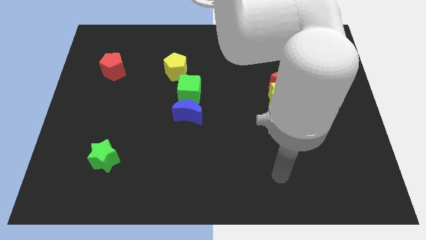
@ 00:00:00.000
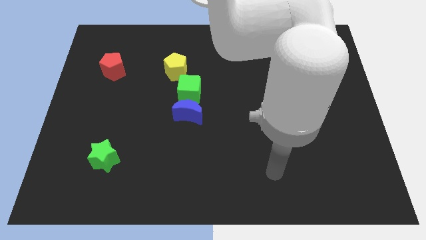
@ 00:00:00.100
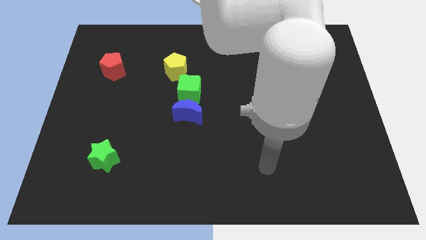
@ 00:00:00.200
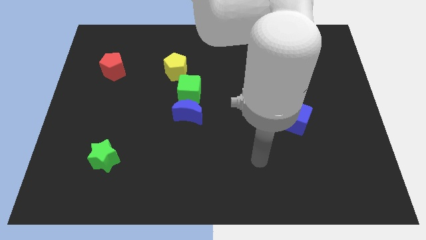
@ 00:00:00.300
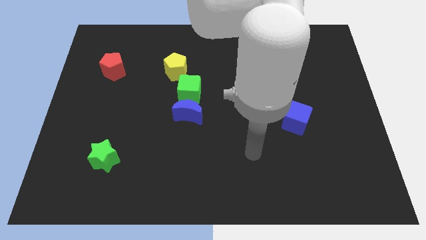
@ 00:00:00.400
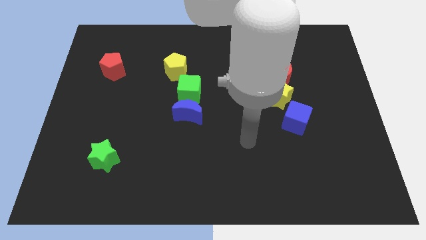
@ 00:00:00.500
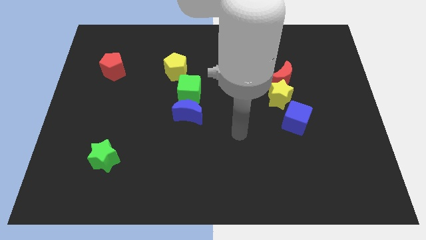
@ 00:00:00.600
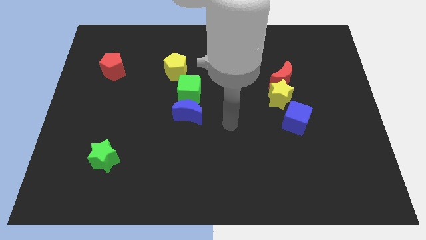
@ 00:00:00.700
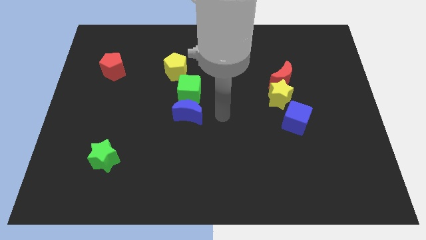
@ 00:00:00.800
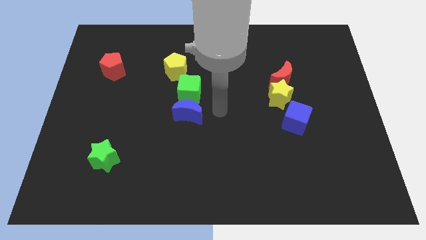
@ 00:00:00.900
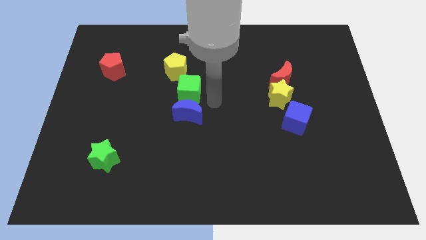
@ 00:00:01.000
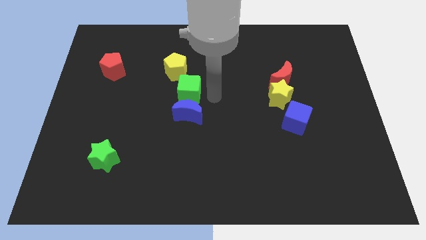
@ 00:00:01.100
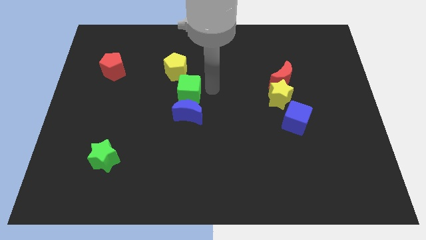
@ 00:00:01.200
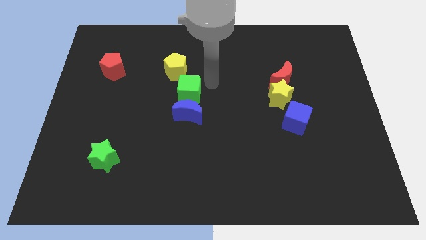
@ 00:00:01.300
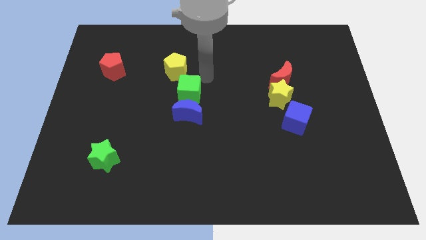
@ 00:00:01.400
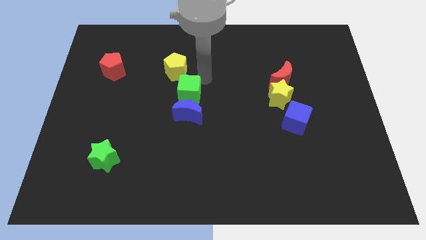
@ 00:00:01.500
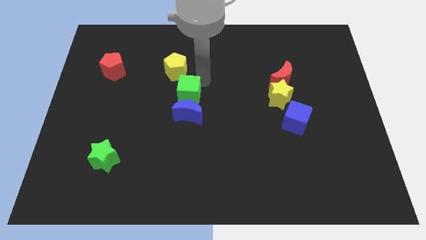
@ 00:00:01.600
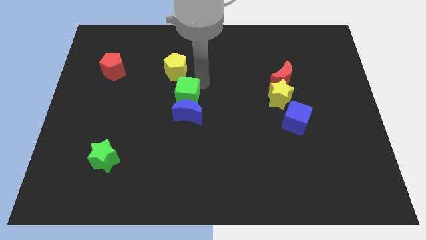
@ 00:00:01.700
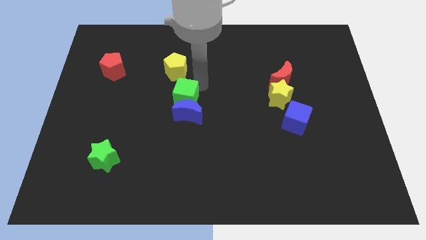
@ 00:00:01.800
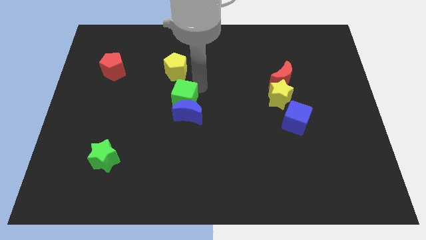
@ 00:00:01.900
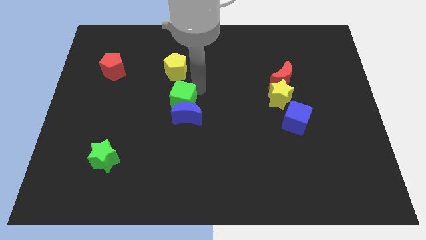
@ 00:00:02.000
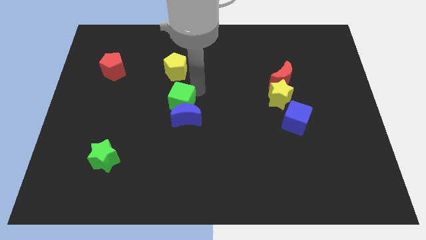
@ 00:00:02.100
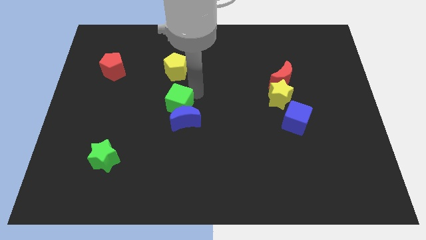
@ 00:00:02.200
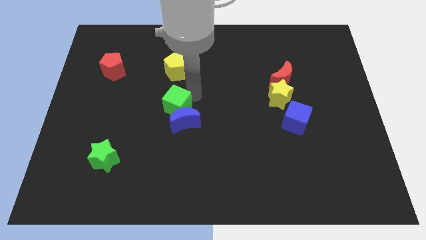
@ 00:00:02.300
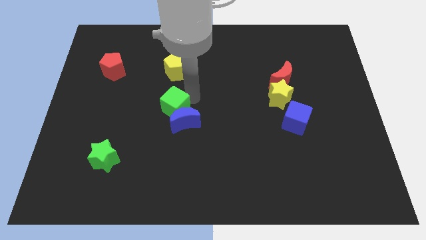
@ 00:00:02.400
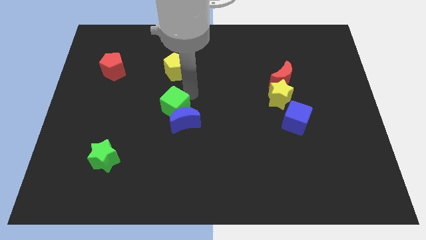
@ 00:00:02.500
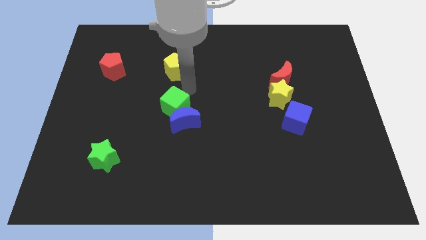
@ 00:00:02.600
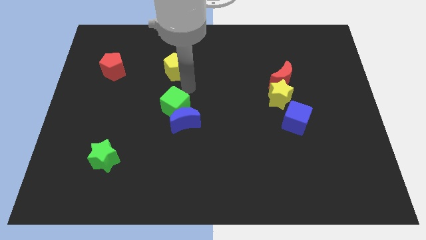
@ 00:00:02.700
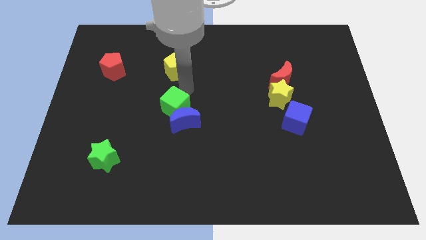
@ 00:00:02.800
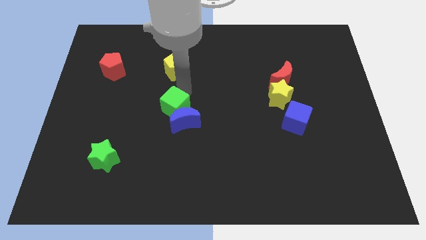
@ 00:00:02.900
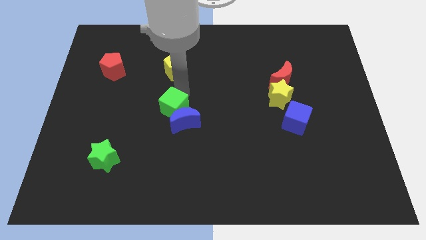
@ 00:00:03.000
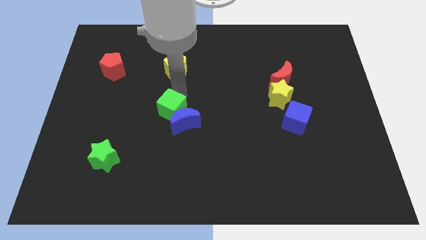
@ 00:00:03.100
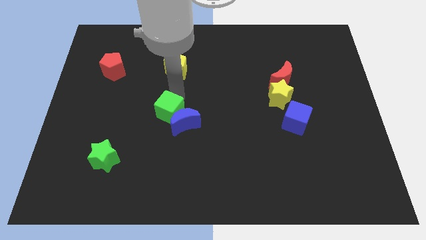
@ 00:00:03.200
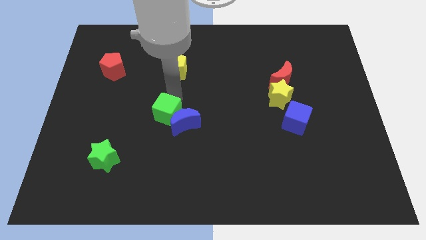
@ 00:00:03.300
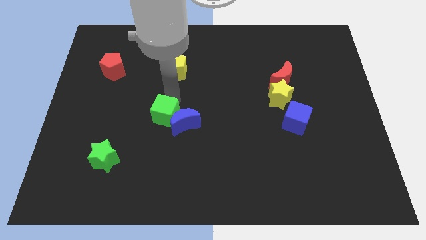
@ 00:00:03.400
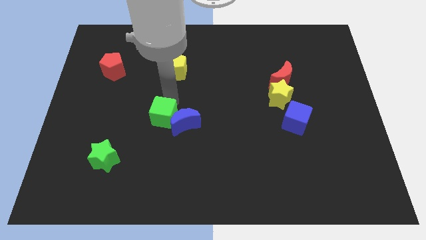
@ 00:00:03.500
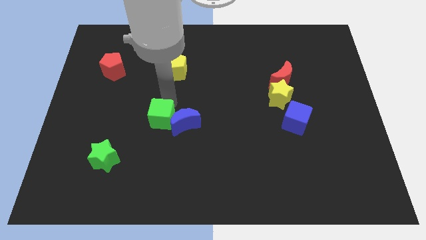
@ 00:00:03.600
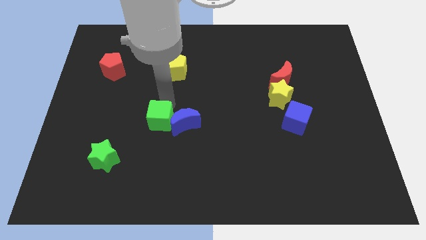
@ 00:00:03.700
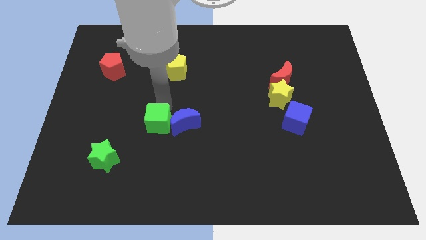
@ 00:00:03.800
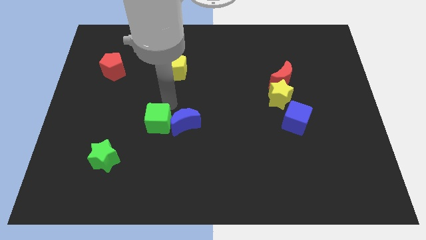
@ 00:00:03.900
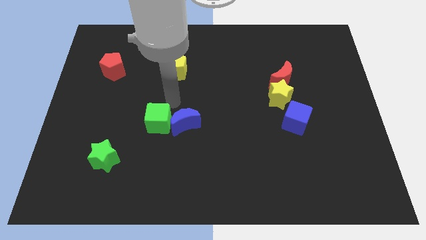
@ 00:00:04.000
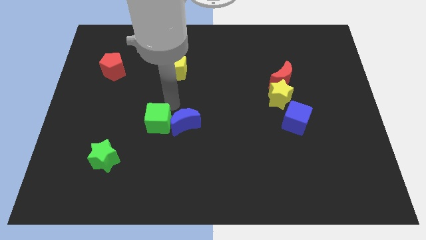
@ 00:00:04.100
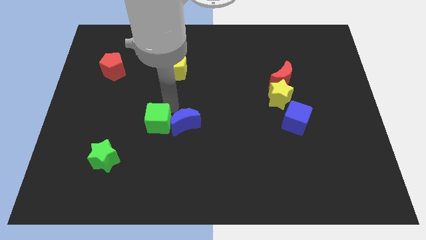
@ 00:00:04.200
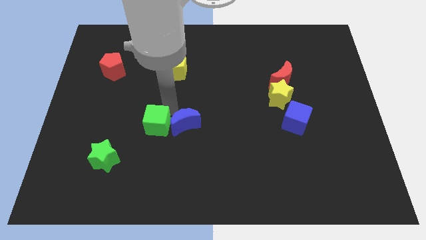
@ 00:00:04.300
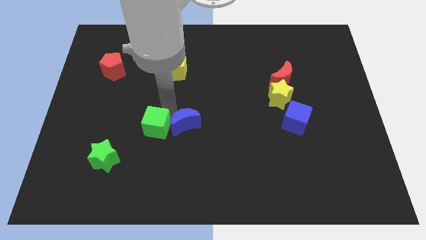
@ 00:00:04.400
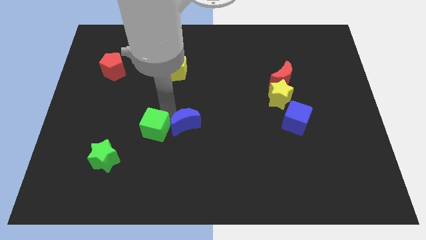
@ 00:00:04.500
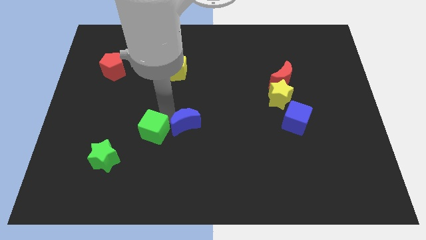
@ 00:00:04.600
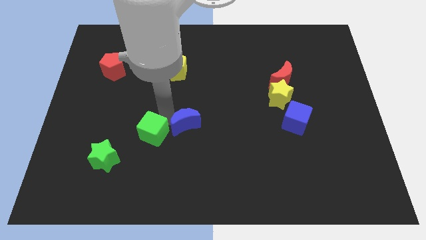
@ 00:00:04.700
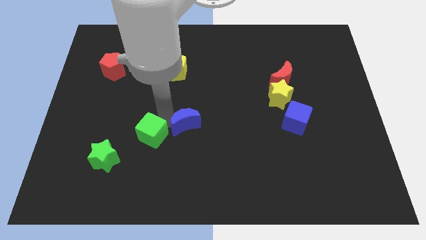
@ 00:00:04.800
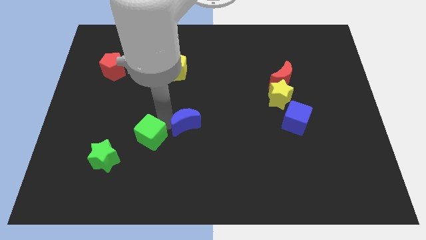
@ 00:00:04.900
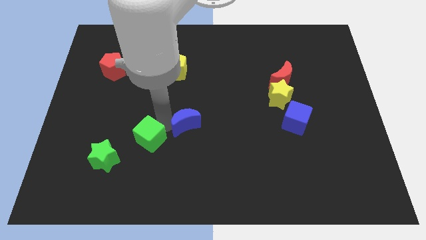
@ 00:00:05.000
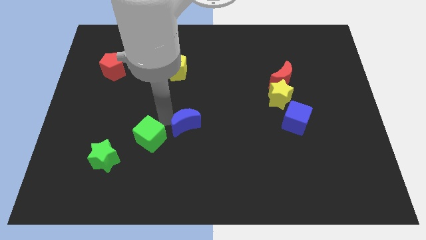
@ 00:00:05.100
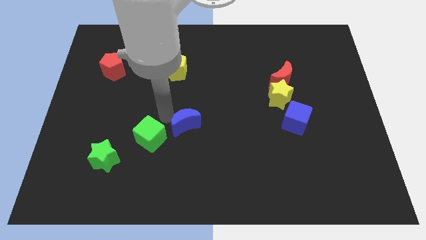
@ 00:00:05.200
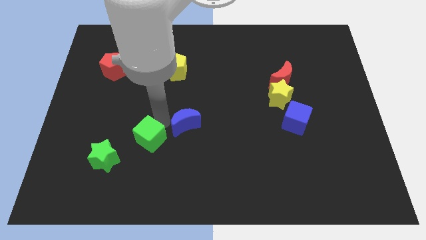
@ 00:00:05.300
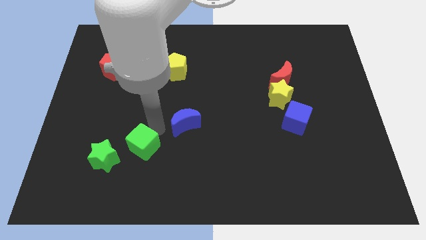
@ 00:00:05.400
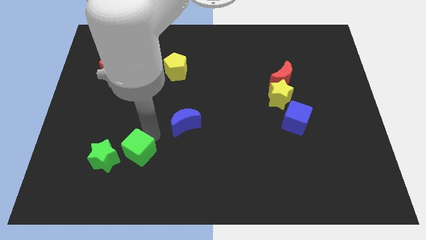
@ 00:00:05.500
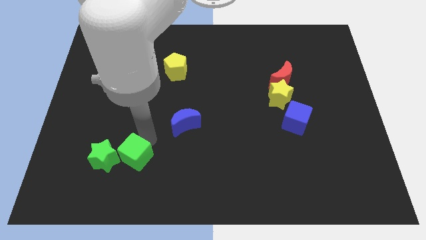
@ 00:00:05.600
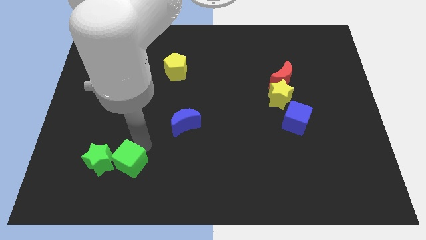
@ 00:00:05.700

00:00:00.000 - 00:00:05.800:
put the green cube diagonally down and to the right of the green star
